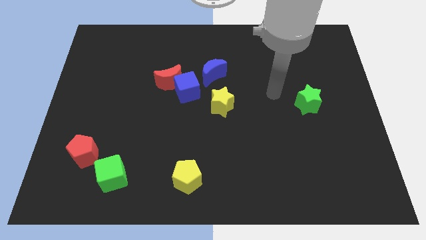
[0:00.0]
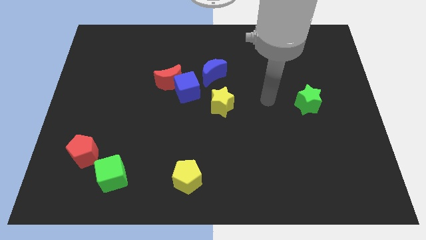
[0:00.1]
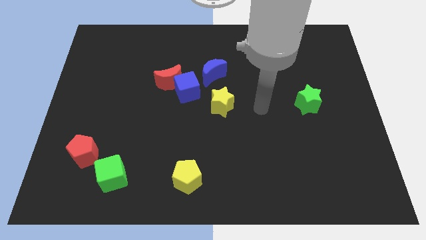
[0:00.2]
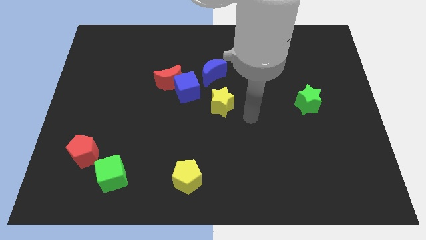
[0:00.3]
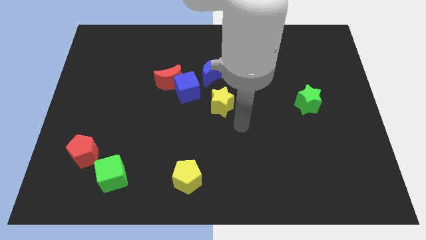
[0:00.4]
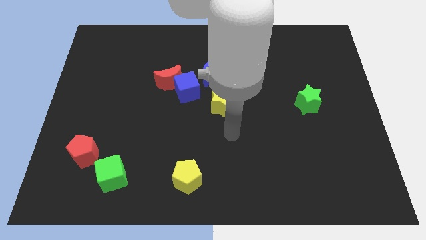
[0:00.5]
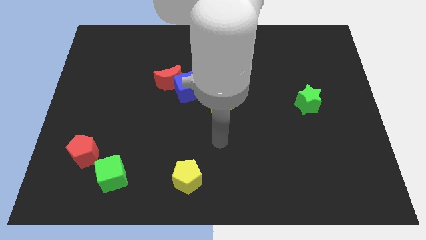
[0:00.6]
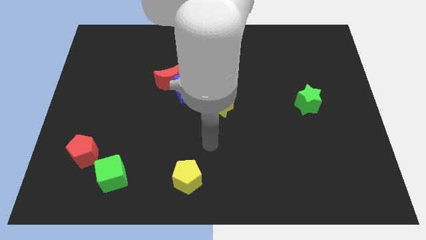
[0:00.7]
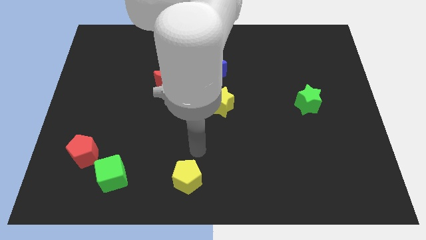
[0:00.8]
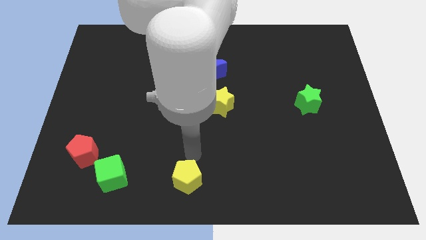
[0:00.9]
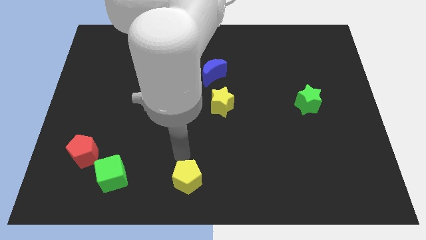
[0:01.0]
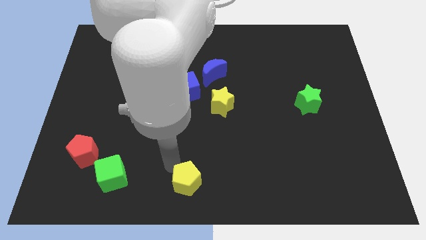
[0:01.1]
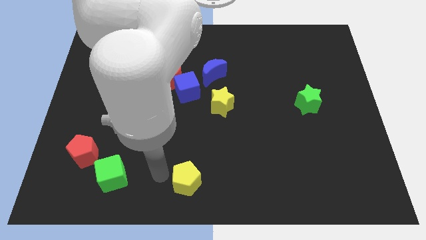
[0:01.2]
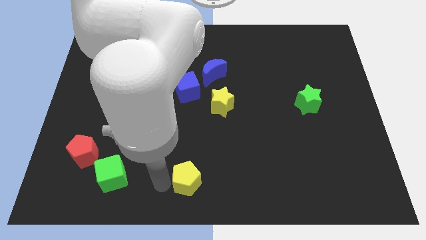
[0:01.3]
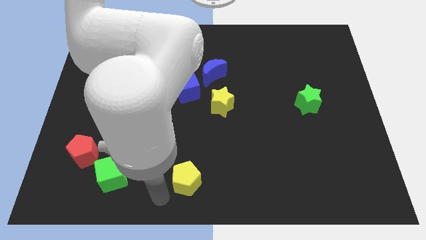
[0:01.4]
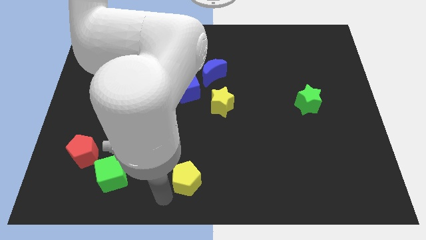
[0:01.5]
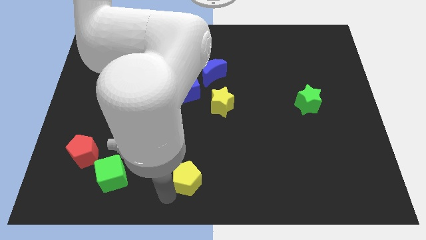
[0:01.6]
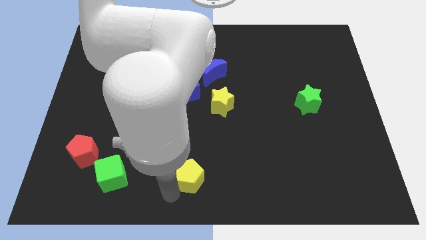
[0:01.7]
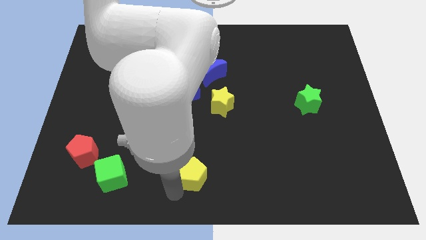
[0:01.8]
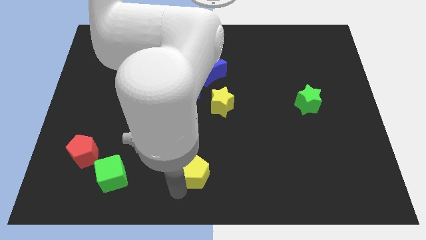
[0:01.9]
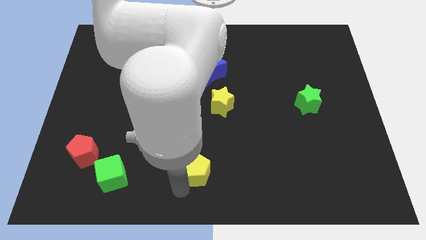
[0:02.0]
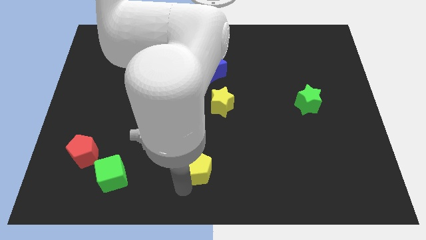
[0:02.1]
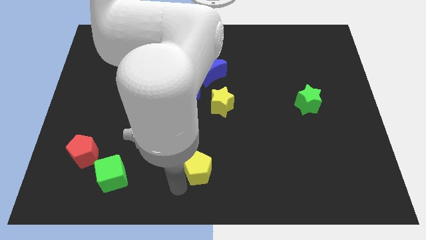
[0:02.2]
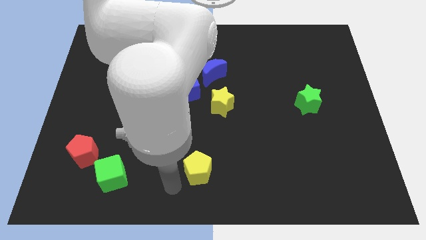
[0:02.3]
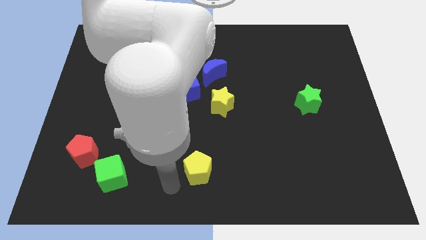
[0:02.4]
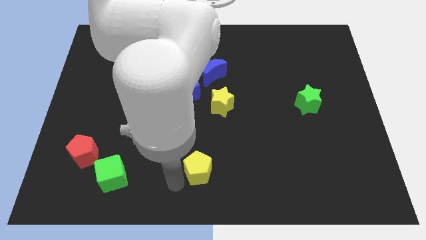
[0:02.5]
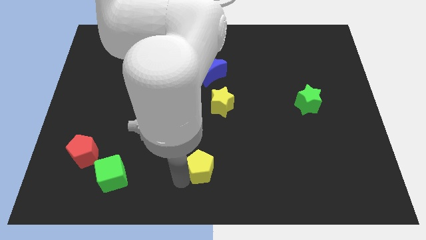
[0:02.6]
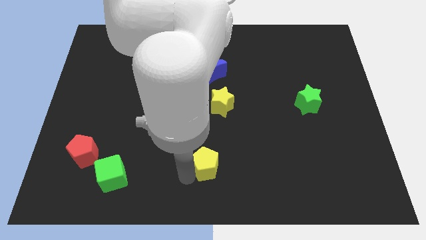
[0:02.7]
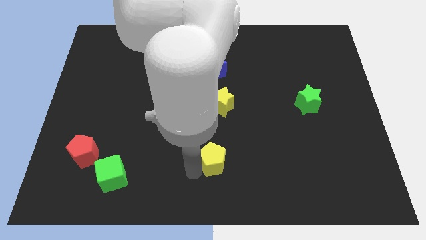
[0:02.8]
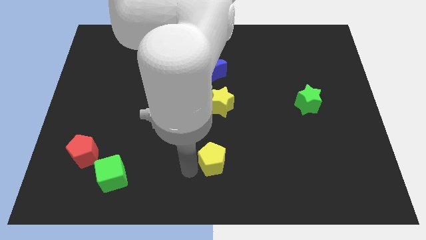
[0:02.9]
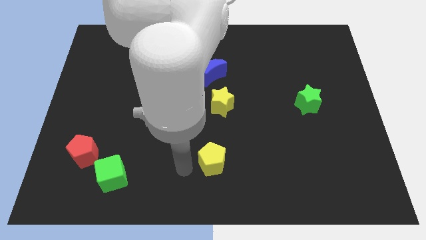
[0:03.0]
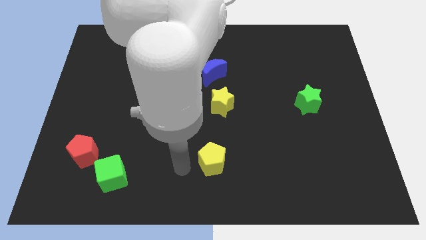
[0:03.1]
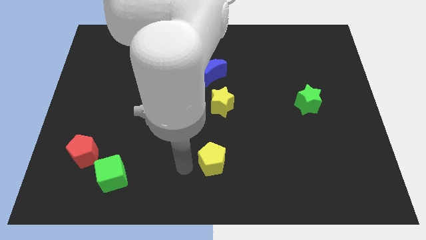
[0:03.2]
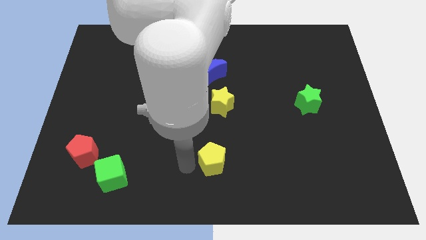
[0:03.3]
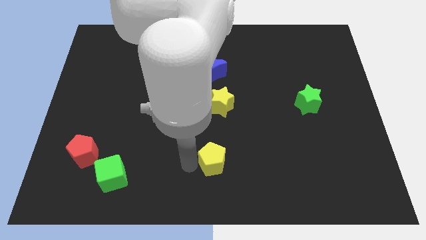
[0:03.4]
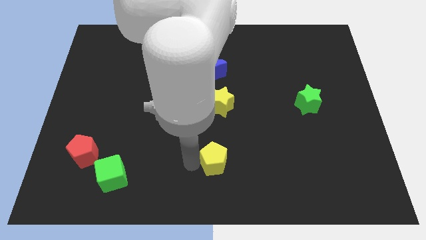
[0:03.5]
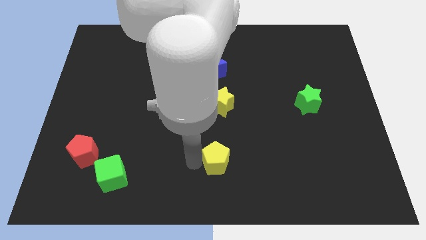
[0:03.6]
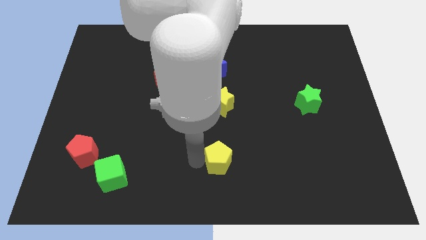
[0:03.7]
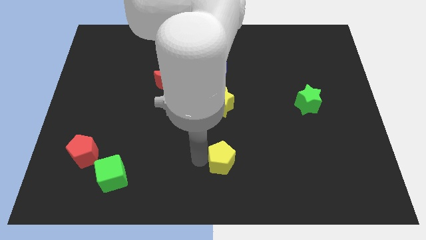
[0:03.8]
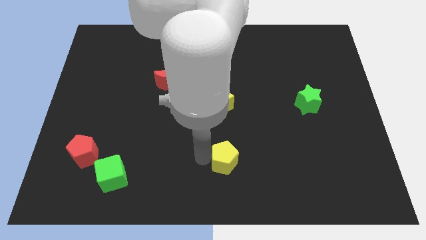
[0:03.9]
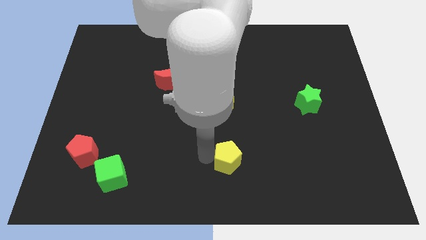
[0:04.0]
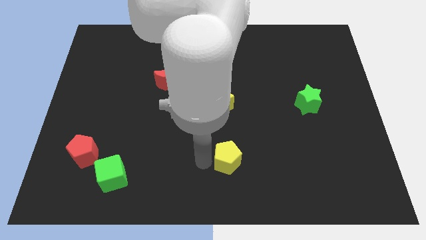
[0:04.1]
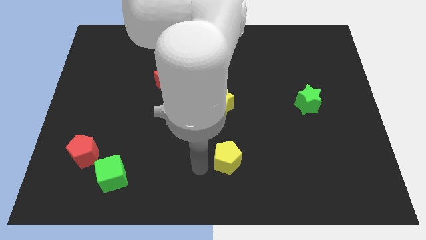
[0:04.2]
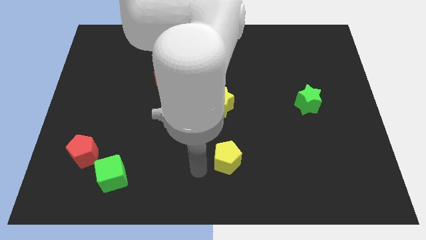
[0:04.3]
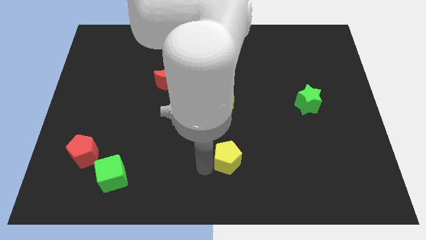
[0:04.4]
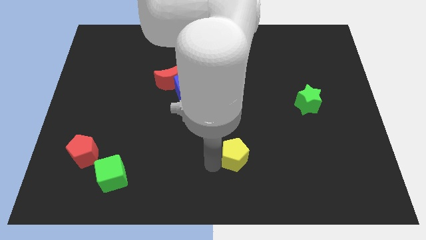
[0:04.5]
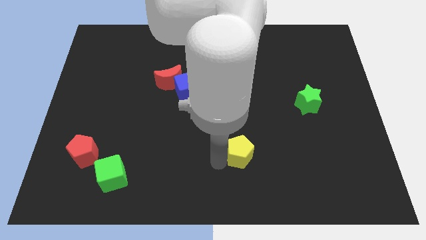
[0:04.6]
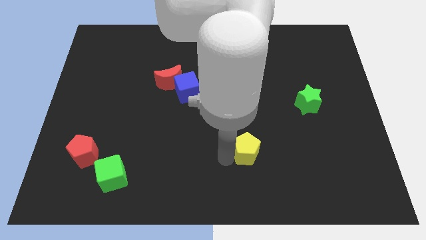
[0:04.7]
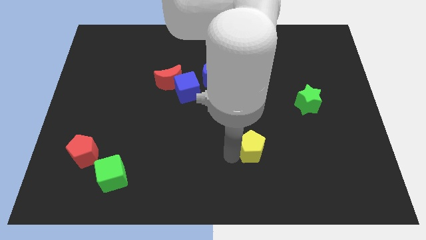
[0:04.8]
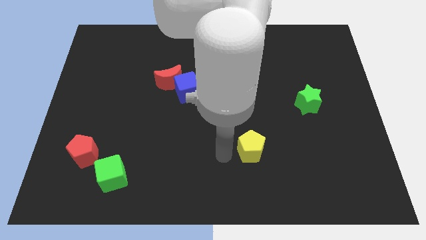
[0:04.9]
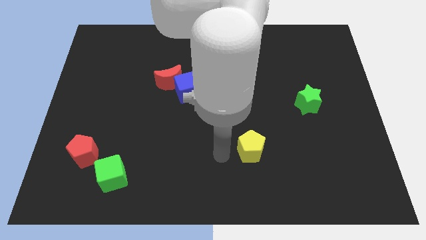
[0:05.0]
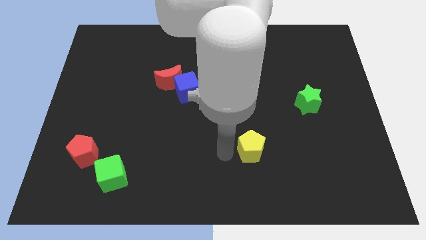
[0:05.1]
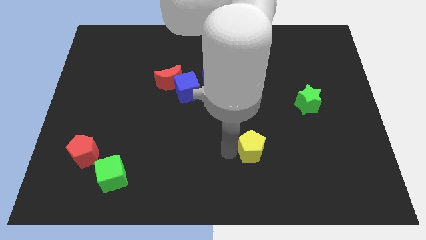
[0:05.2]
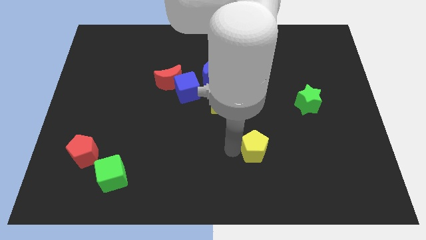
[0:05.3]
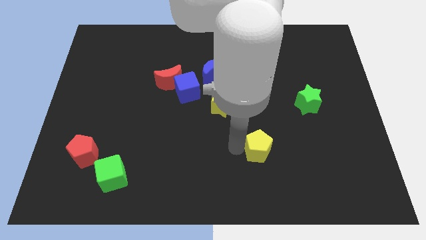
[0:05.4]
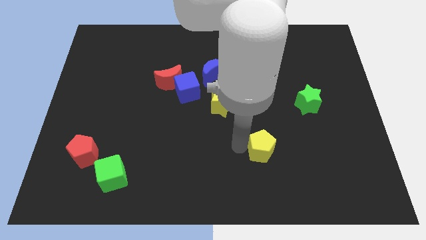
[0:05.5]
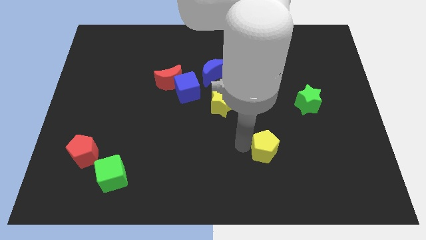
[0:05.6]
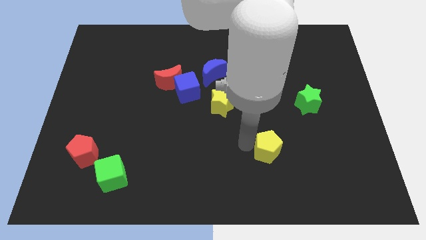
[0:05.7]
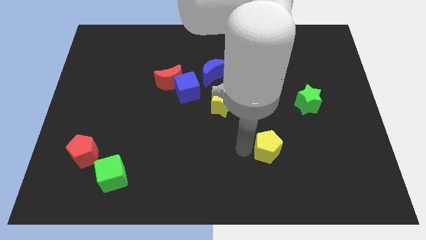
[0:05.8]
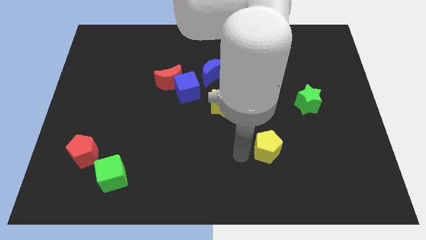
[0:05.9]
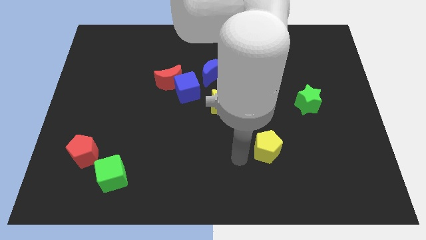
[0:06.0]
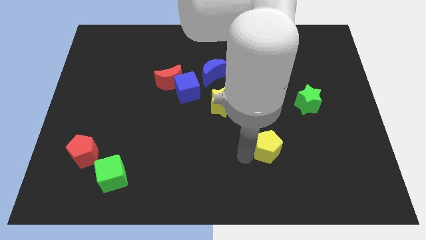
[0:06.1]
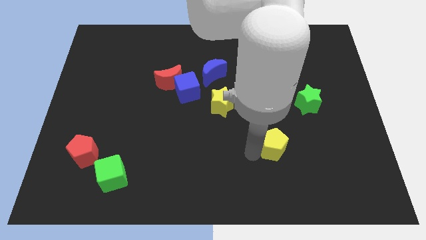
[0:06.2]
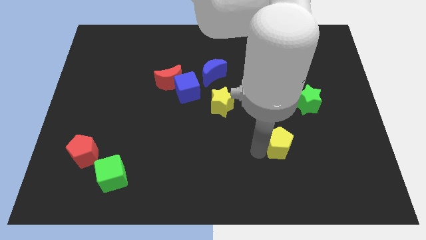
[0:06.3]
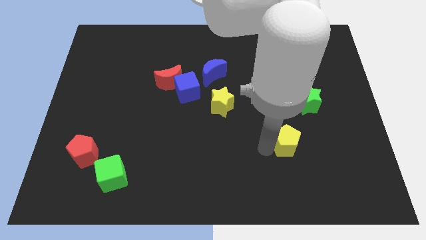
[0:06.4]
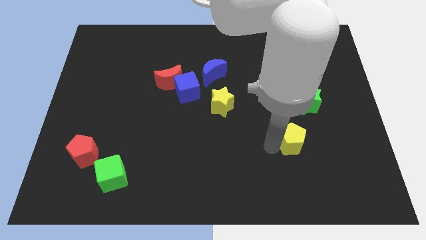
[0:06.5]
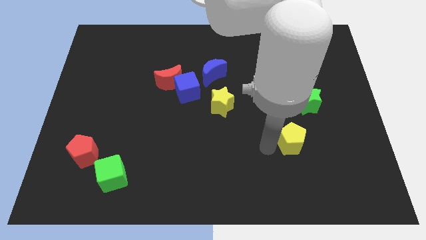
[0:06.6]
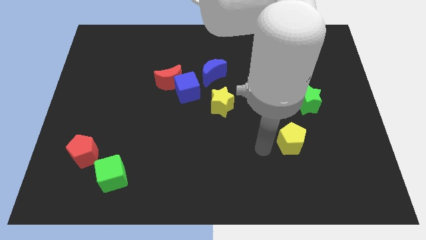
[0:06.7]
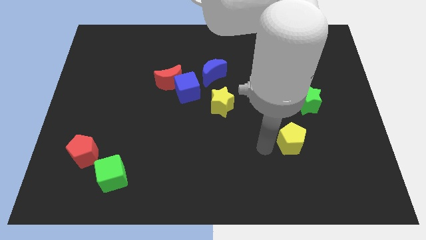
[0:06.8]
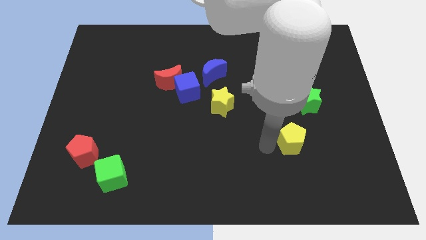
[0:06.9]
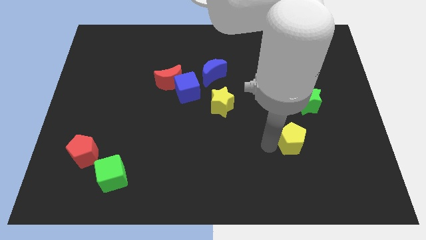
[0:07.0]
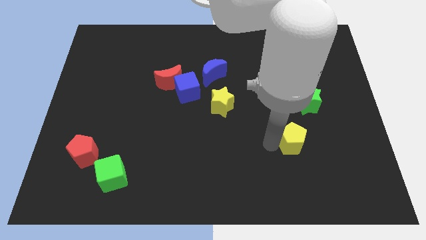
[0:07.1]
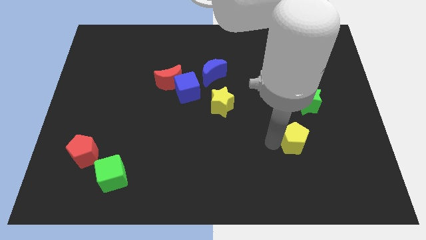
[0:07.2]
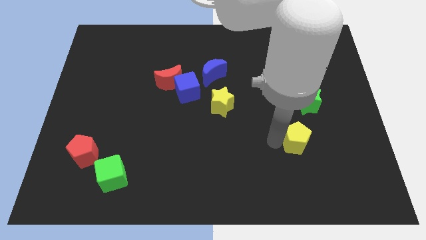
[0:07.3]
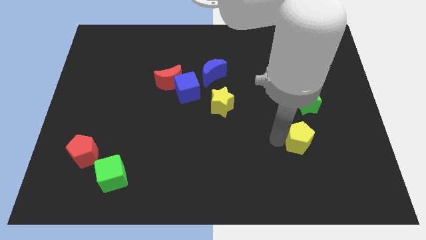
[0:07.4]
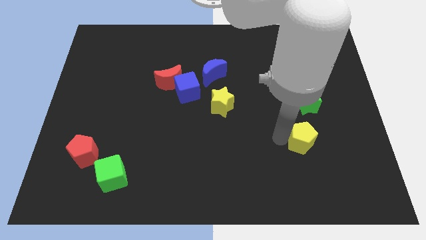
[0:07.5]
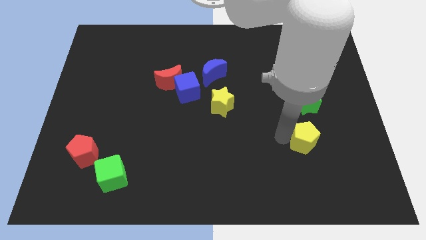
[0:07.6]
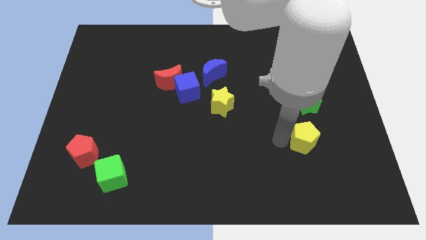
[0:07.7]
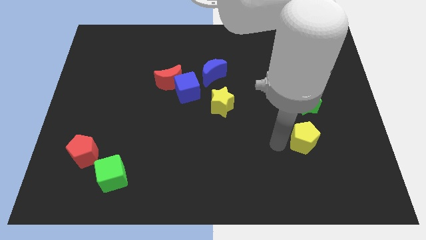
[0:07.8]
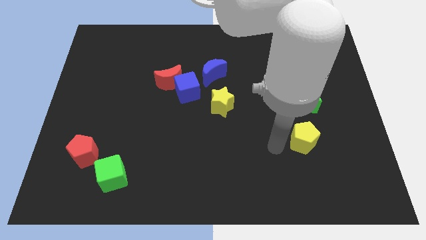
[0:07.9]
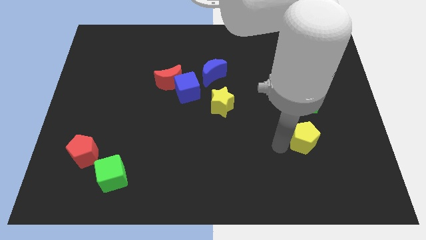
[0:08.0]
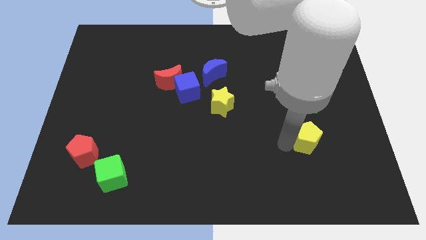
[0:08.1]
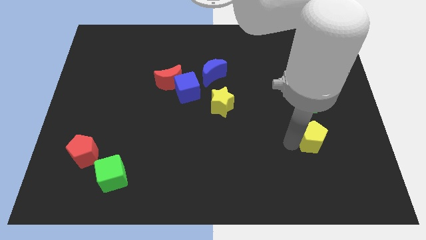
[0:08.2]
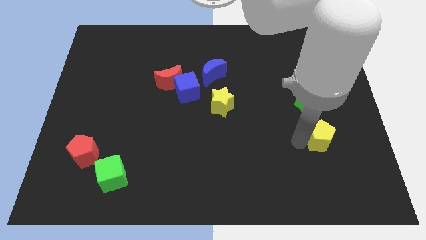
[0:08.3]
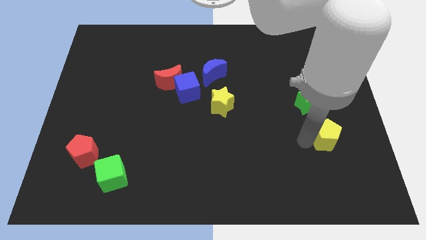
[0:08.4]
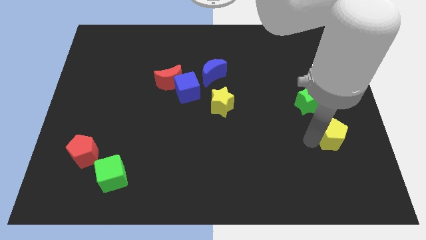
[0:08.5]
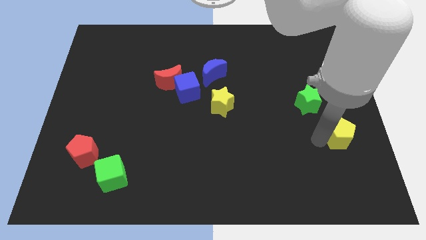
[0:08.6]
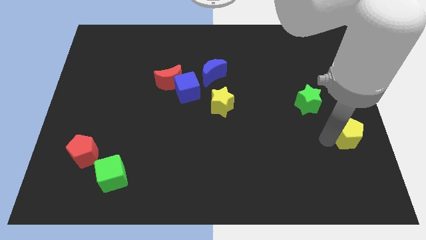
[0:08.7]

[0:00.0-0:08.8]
push the yellow pentagon to the center right
